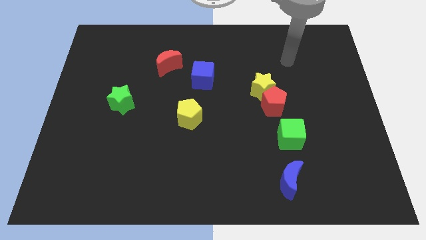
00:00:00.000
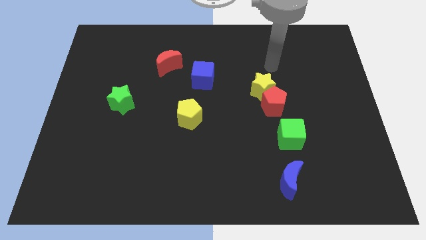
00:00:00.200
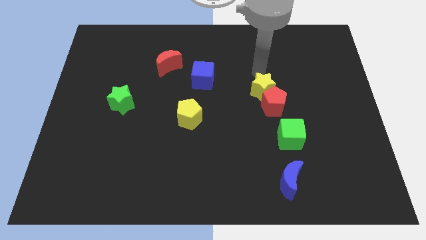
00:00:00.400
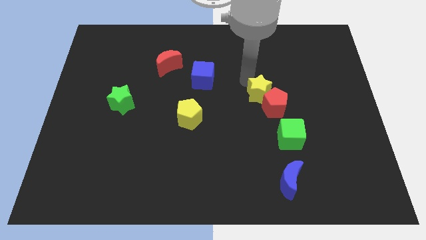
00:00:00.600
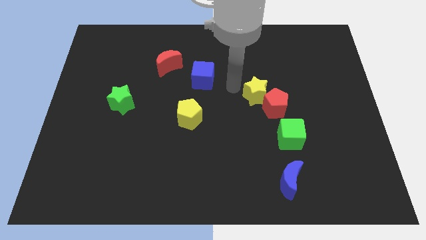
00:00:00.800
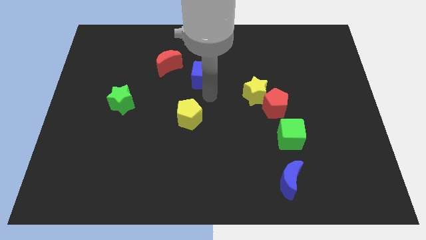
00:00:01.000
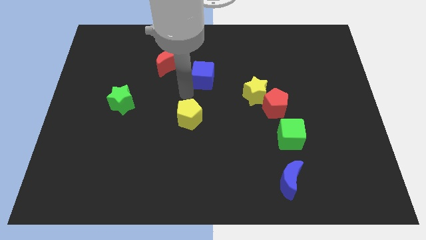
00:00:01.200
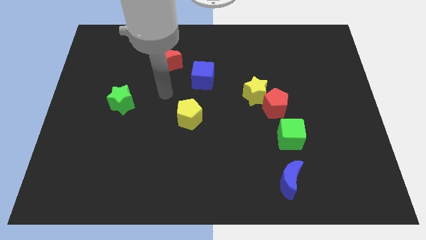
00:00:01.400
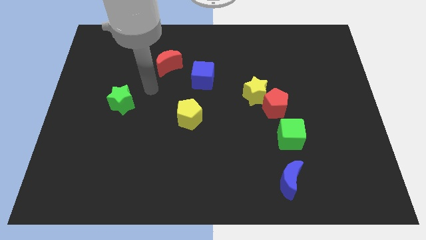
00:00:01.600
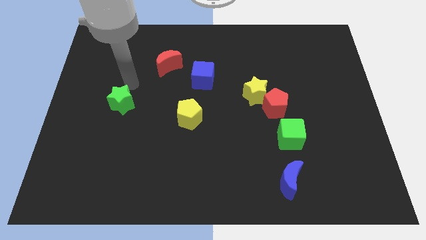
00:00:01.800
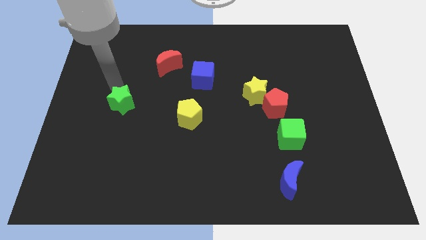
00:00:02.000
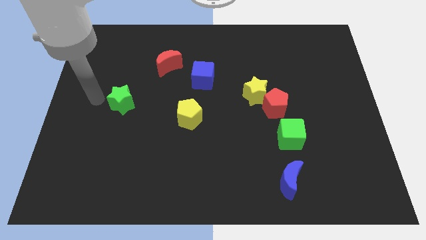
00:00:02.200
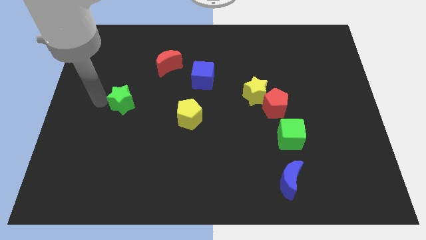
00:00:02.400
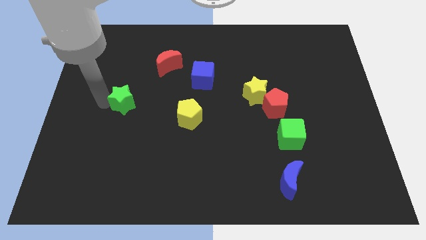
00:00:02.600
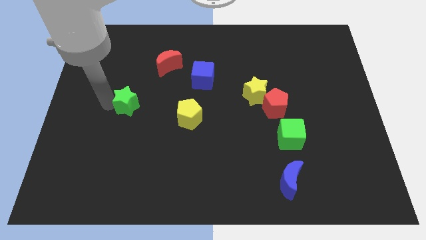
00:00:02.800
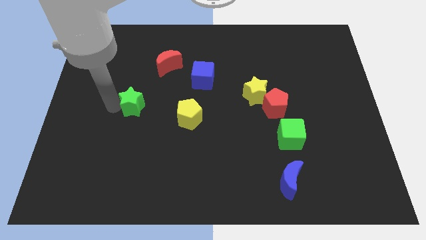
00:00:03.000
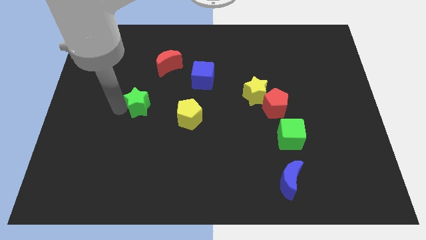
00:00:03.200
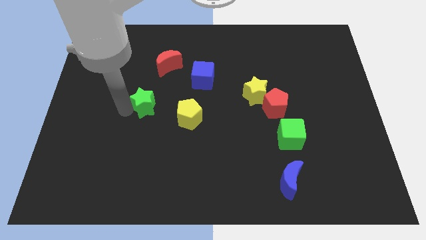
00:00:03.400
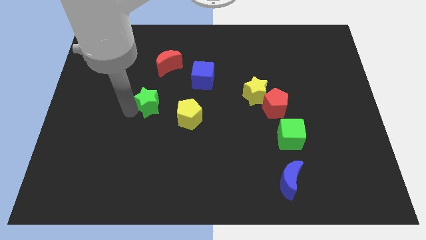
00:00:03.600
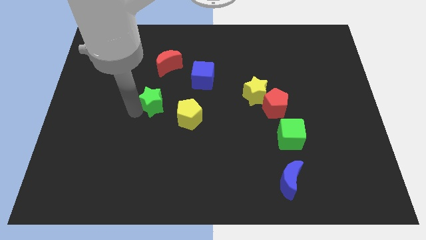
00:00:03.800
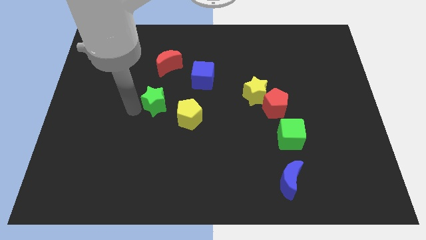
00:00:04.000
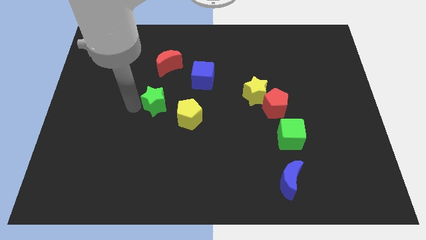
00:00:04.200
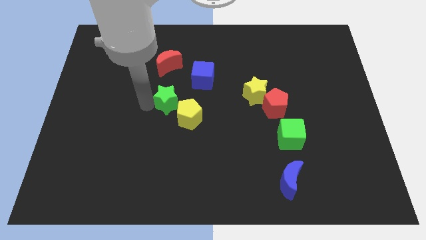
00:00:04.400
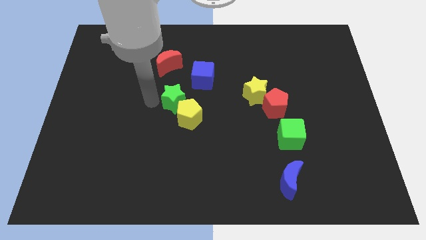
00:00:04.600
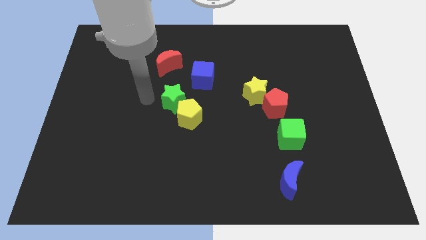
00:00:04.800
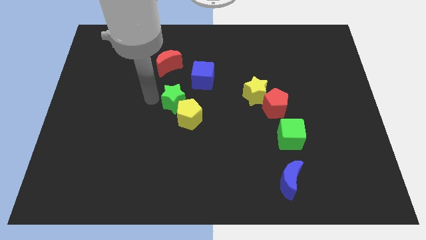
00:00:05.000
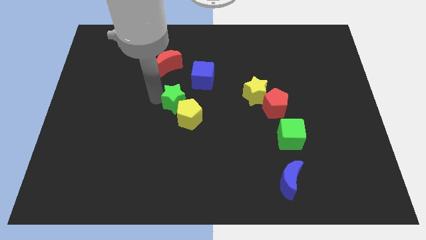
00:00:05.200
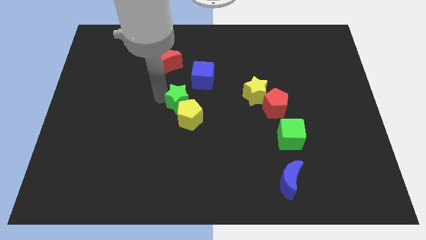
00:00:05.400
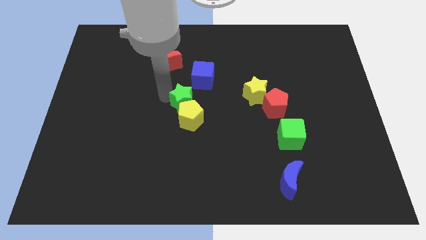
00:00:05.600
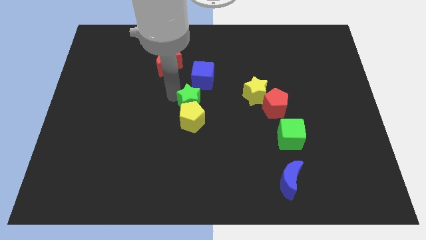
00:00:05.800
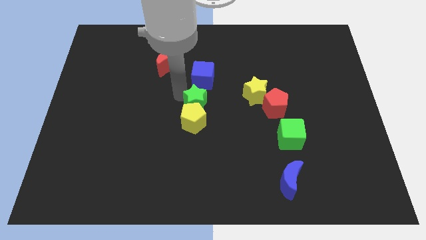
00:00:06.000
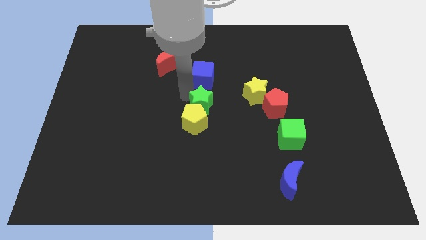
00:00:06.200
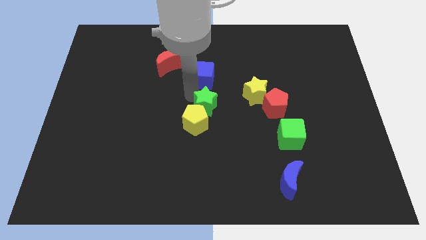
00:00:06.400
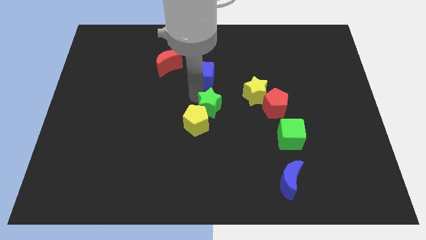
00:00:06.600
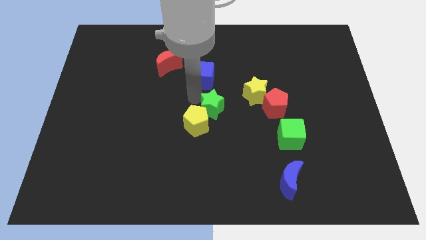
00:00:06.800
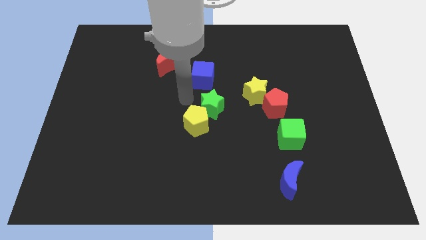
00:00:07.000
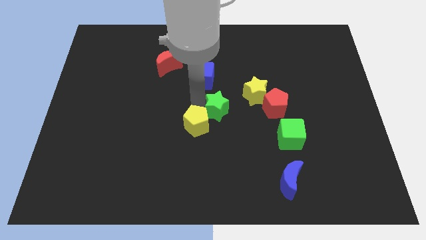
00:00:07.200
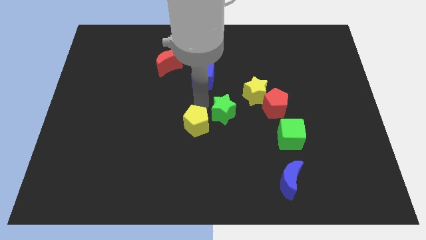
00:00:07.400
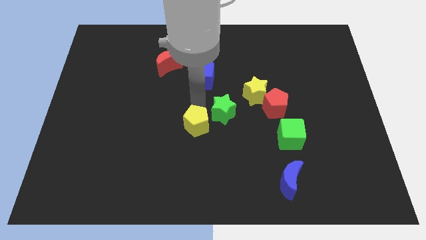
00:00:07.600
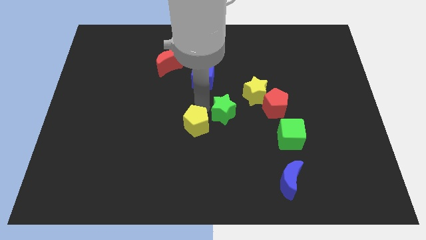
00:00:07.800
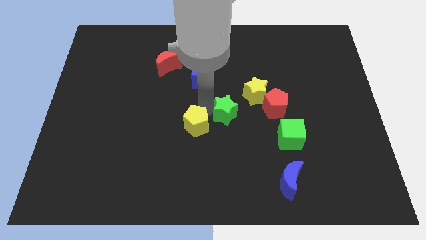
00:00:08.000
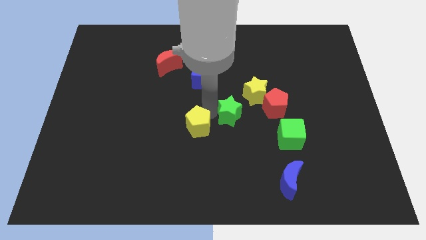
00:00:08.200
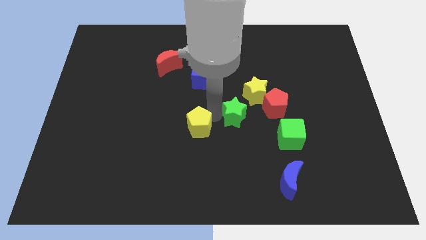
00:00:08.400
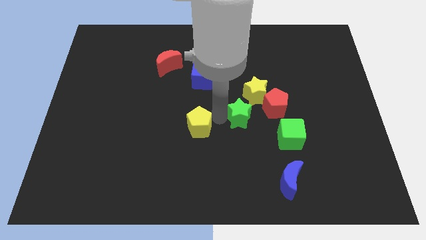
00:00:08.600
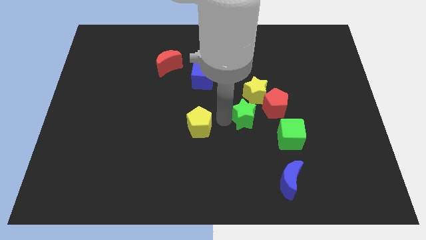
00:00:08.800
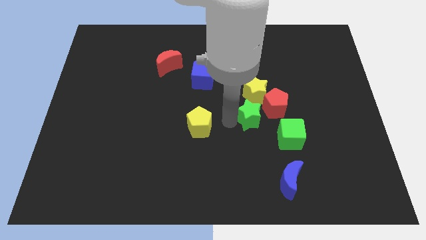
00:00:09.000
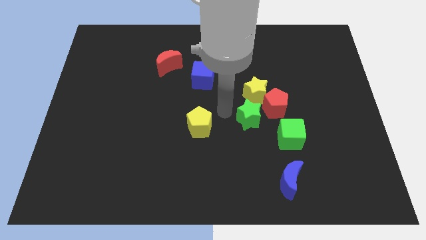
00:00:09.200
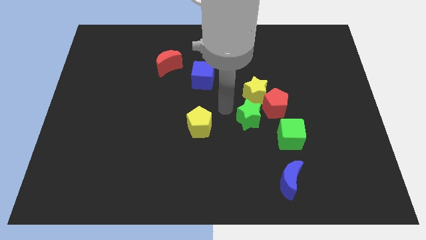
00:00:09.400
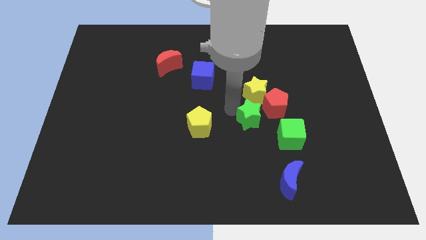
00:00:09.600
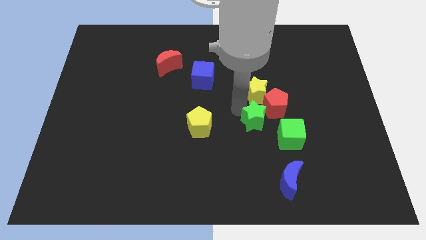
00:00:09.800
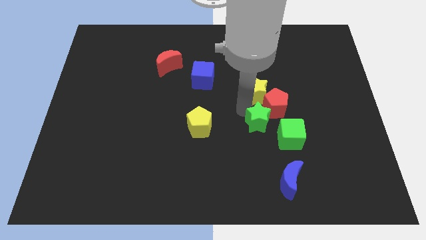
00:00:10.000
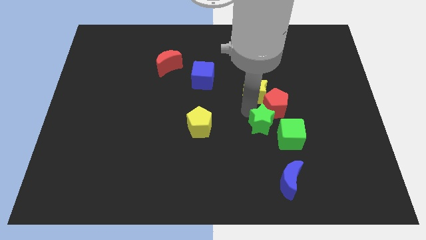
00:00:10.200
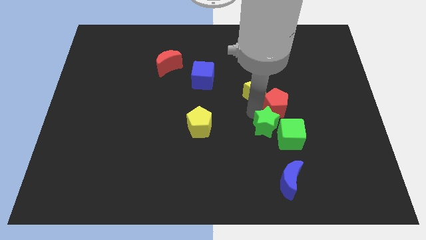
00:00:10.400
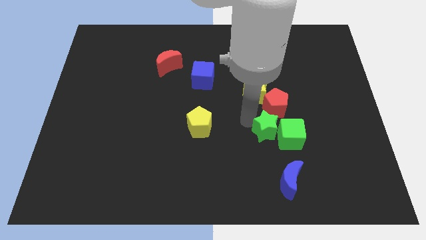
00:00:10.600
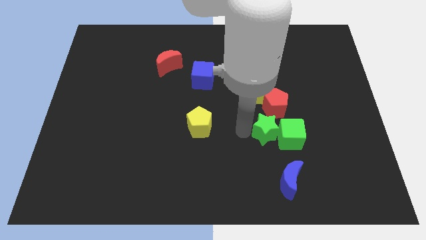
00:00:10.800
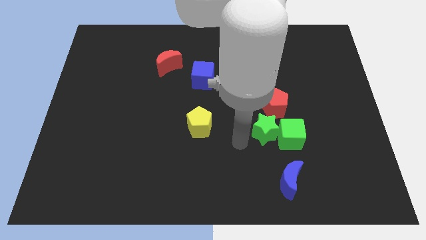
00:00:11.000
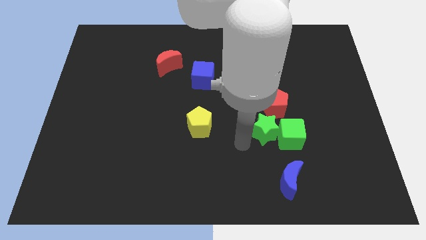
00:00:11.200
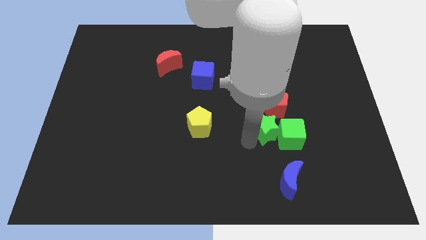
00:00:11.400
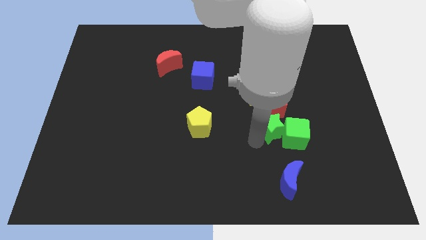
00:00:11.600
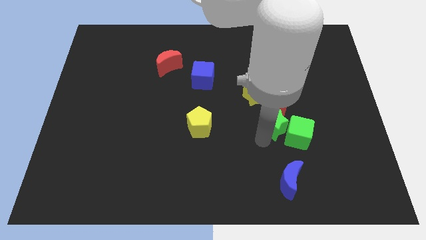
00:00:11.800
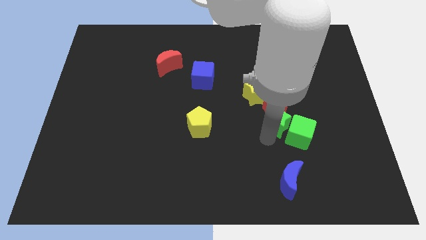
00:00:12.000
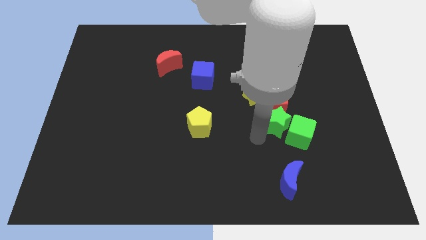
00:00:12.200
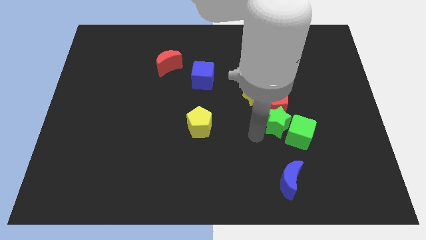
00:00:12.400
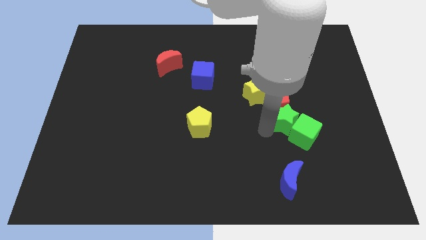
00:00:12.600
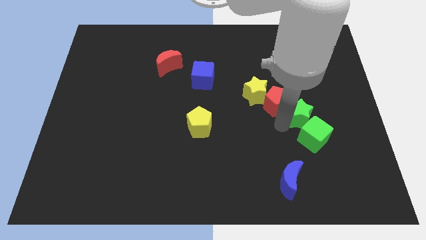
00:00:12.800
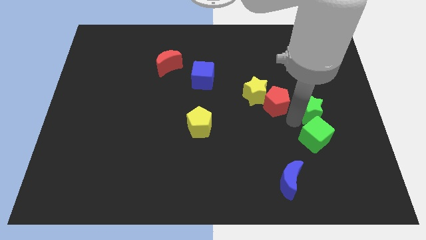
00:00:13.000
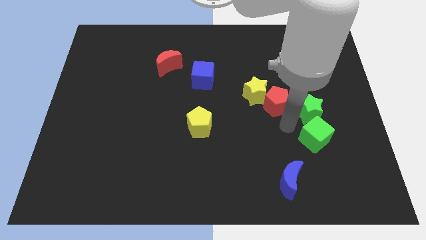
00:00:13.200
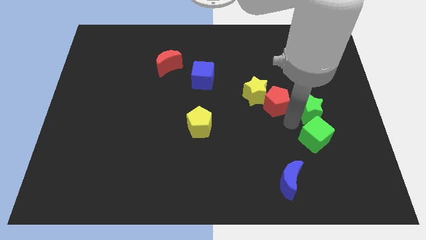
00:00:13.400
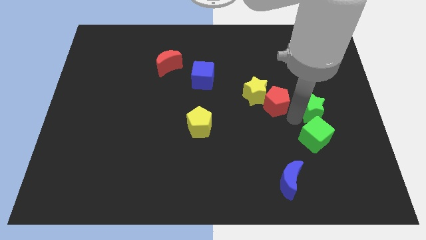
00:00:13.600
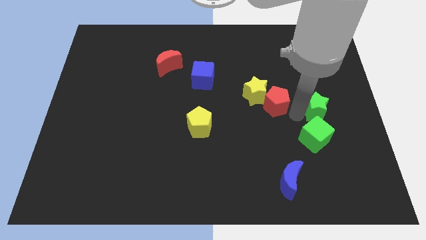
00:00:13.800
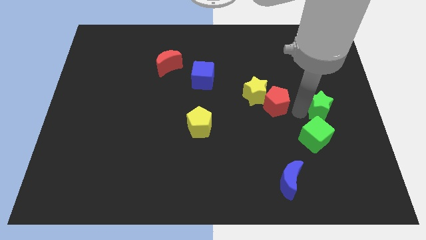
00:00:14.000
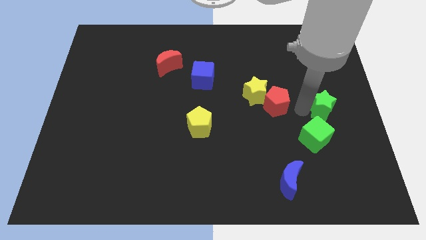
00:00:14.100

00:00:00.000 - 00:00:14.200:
put the green star to the center right
